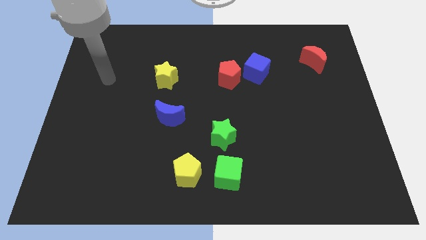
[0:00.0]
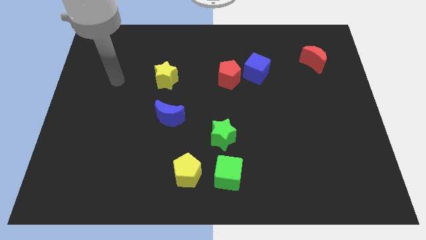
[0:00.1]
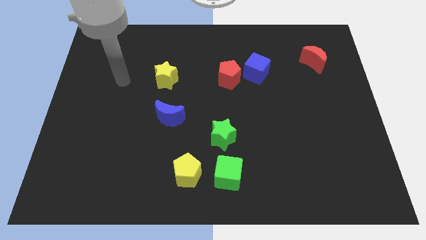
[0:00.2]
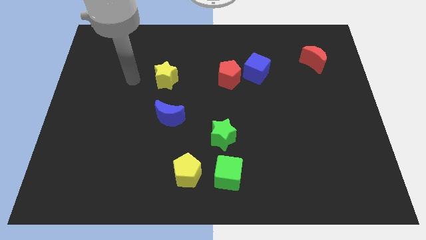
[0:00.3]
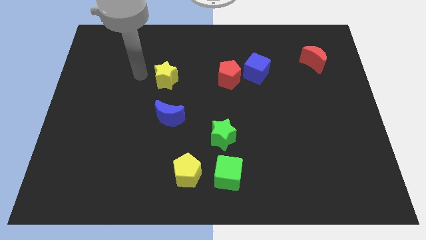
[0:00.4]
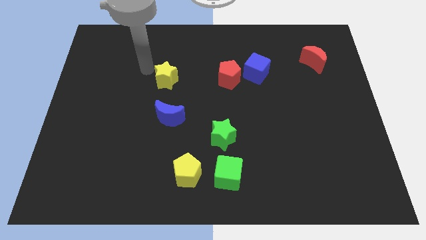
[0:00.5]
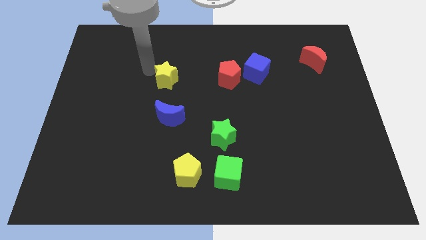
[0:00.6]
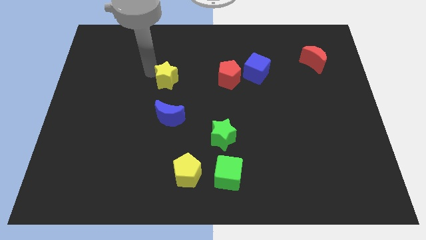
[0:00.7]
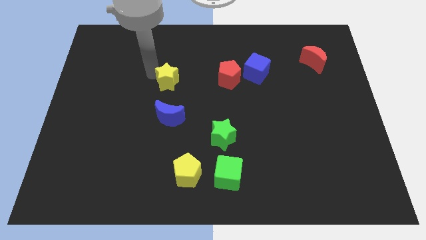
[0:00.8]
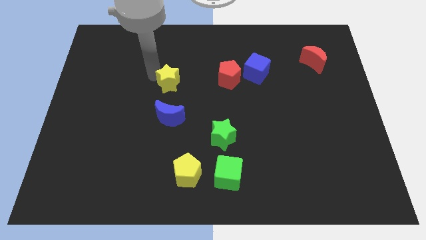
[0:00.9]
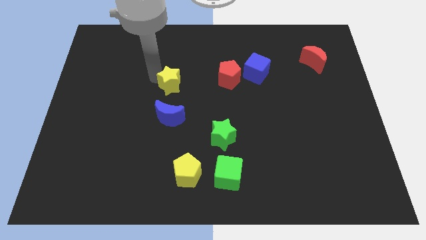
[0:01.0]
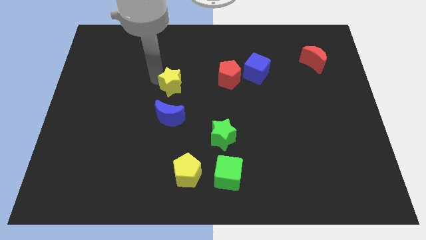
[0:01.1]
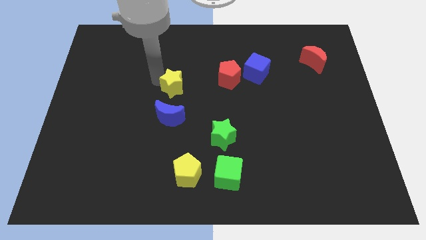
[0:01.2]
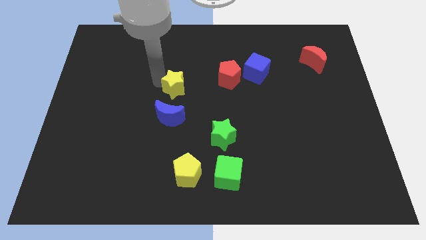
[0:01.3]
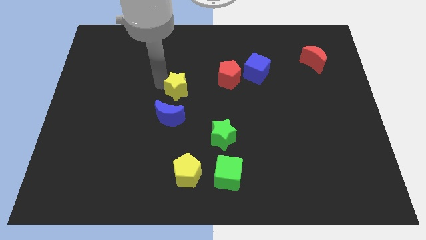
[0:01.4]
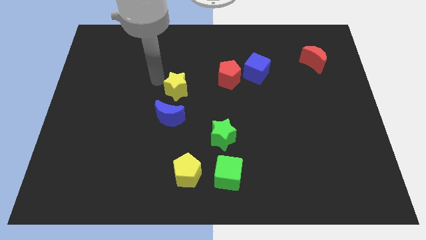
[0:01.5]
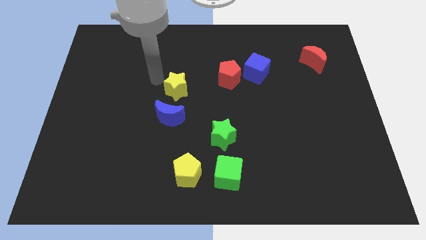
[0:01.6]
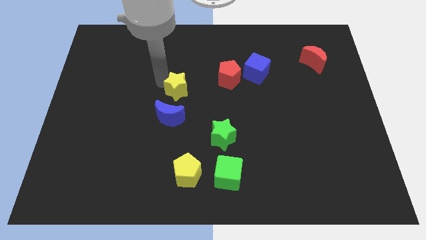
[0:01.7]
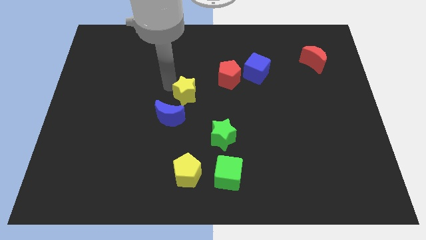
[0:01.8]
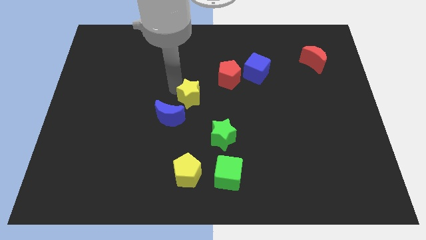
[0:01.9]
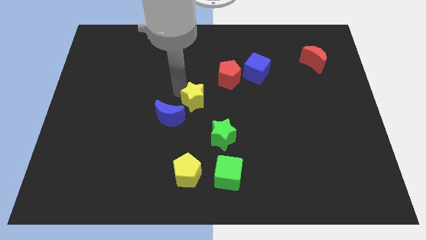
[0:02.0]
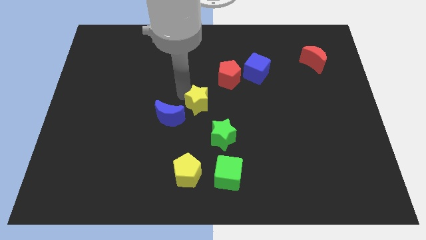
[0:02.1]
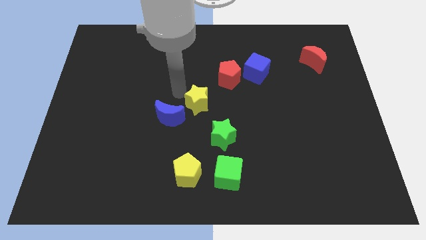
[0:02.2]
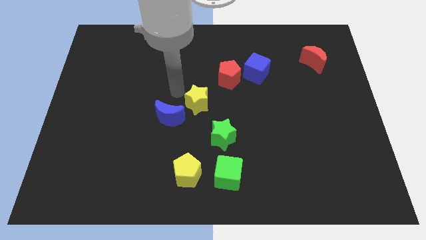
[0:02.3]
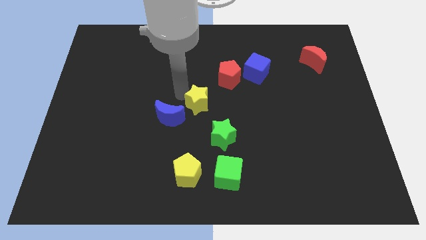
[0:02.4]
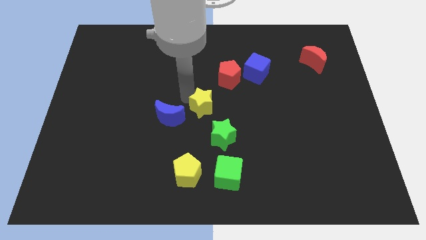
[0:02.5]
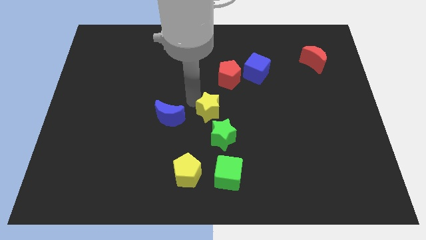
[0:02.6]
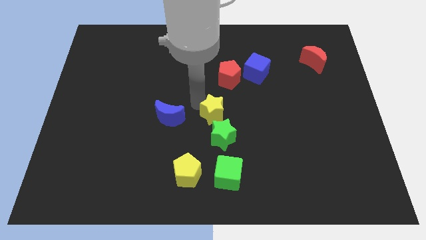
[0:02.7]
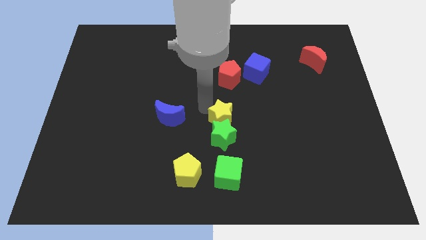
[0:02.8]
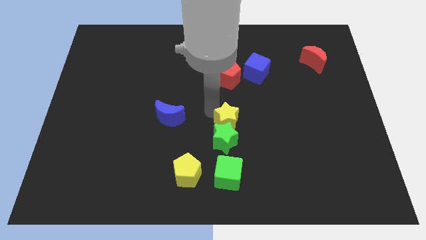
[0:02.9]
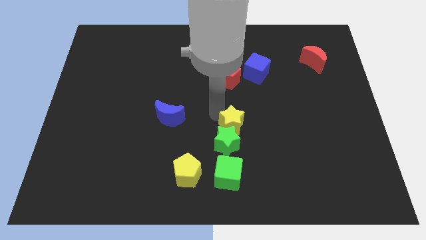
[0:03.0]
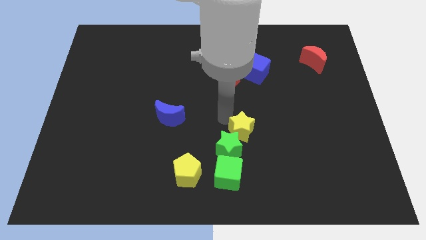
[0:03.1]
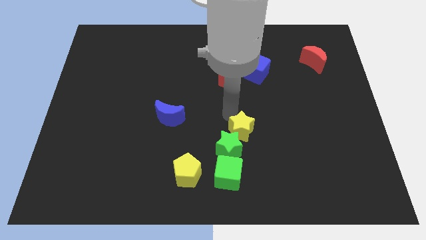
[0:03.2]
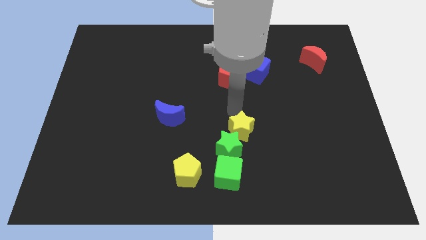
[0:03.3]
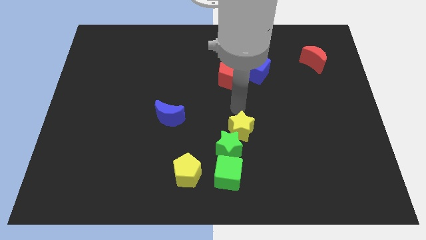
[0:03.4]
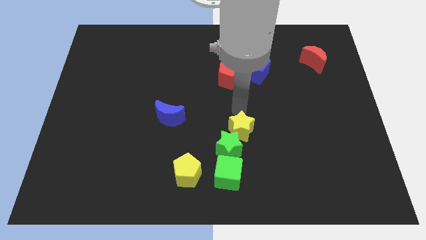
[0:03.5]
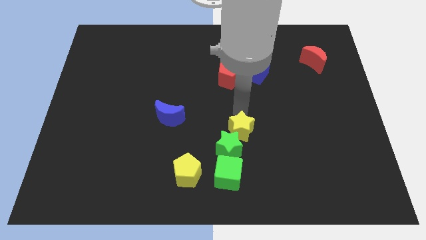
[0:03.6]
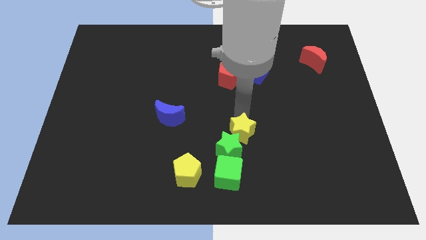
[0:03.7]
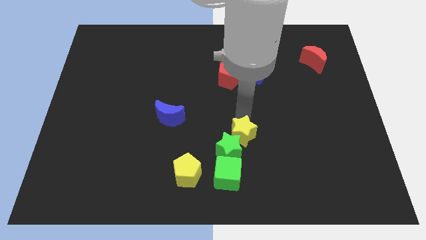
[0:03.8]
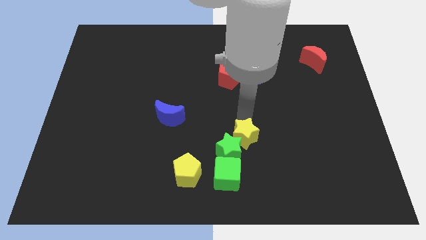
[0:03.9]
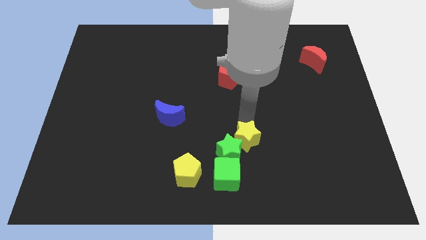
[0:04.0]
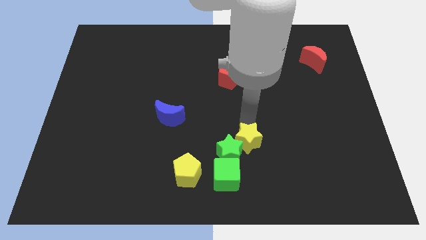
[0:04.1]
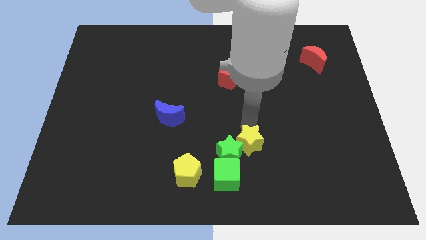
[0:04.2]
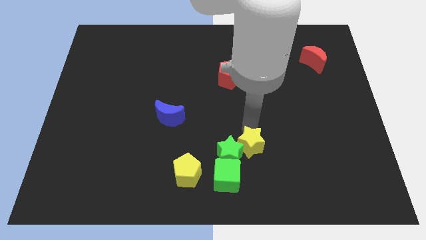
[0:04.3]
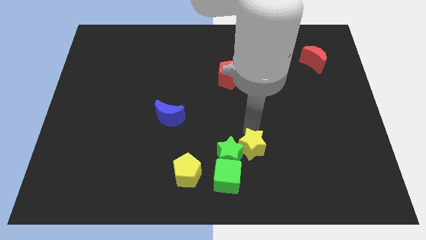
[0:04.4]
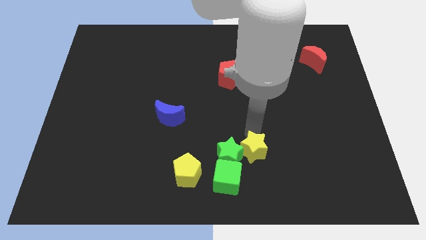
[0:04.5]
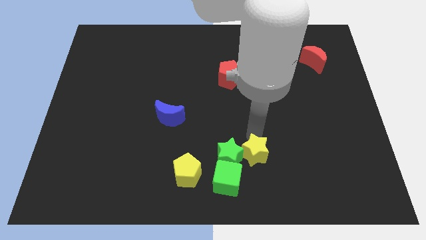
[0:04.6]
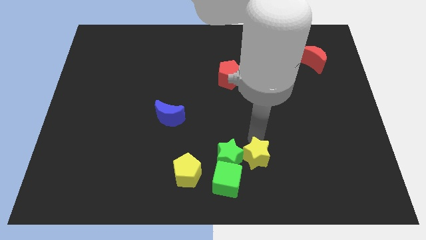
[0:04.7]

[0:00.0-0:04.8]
move the yellow star right of the yellow pentagon

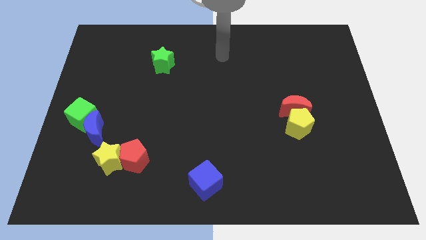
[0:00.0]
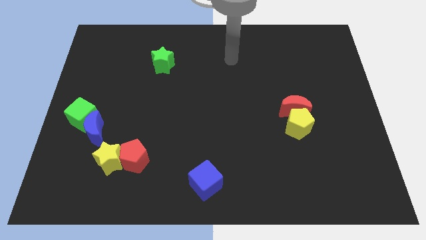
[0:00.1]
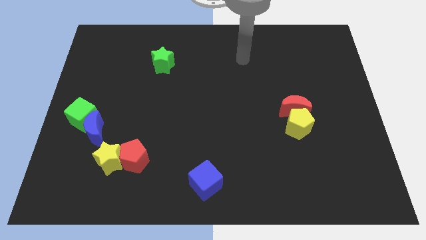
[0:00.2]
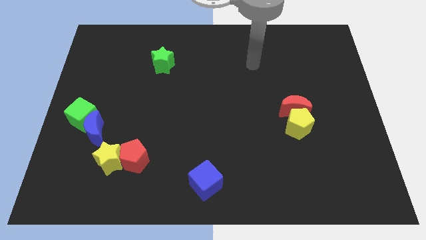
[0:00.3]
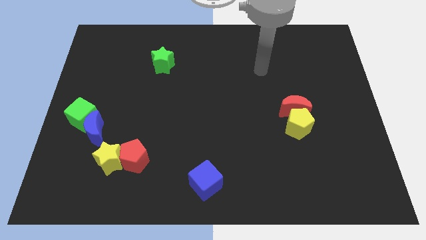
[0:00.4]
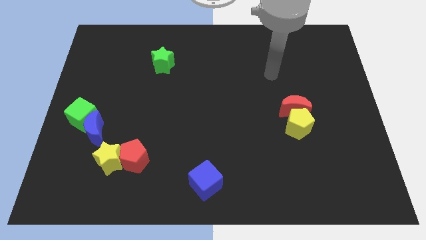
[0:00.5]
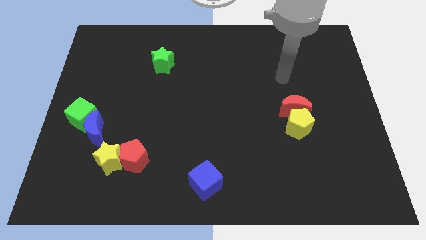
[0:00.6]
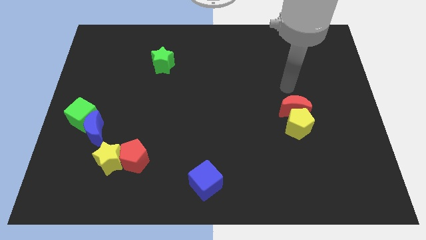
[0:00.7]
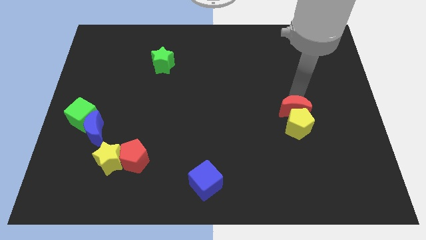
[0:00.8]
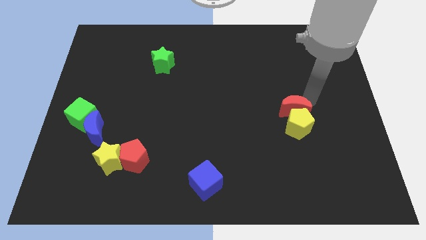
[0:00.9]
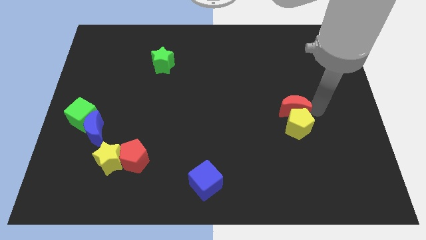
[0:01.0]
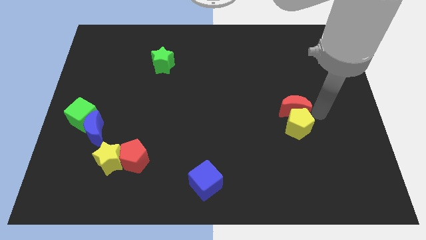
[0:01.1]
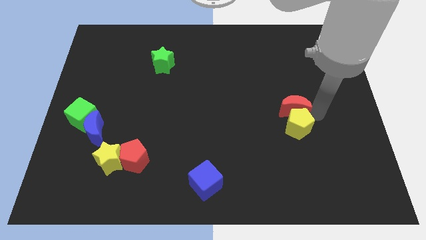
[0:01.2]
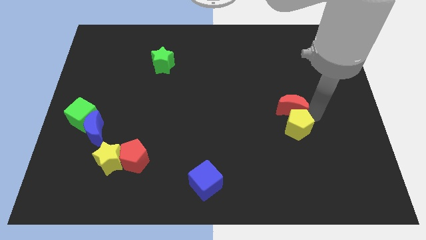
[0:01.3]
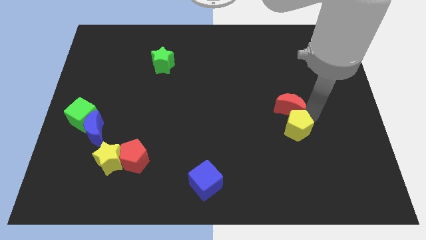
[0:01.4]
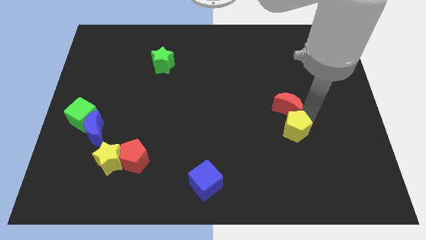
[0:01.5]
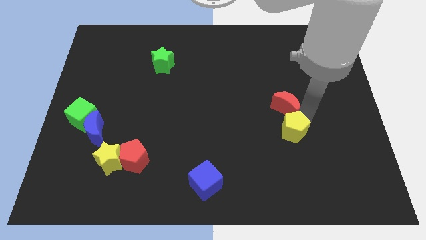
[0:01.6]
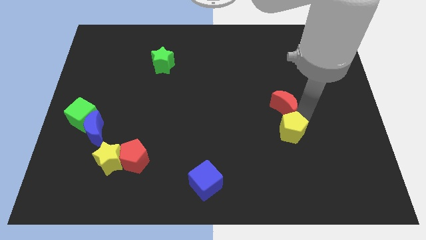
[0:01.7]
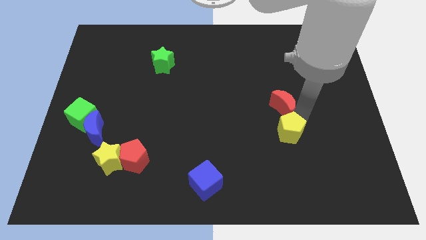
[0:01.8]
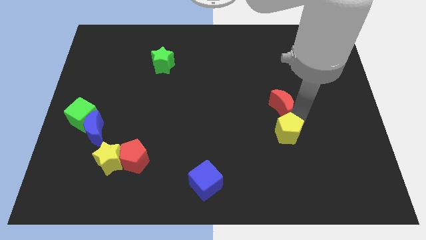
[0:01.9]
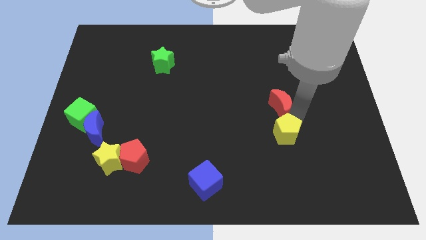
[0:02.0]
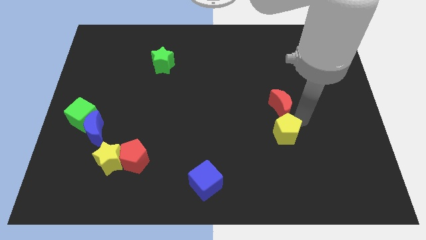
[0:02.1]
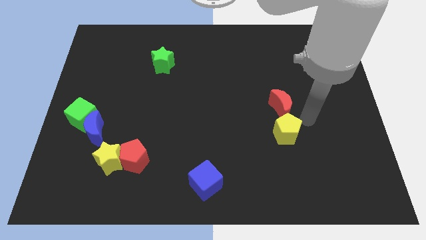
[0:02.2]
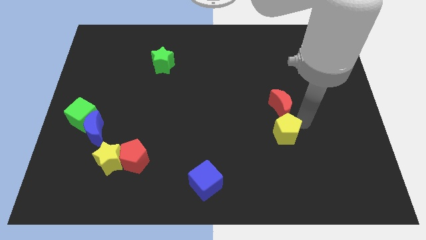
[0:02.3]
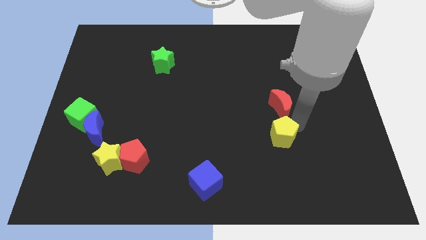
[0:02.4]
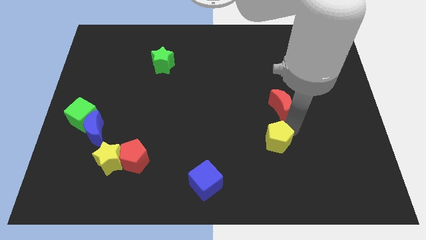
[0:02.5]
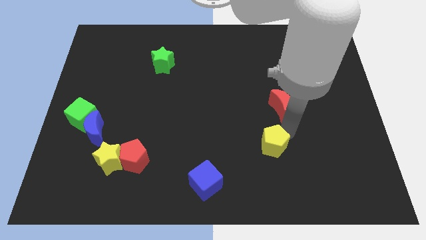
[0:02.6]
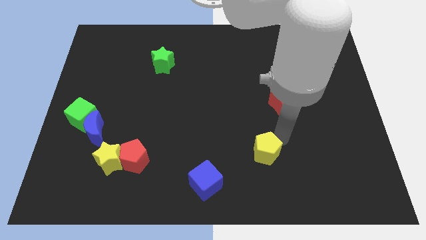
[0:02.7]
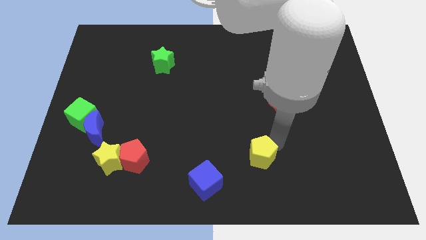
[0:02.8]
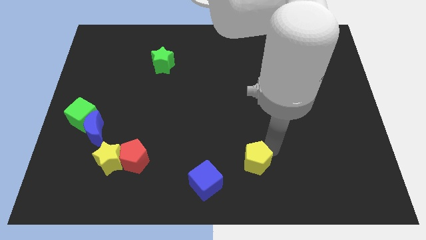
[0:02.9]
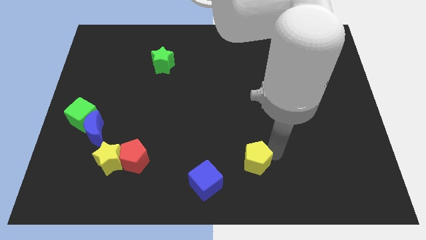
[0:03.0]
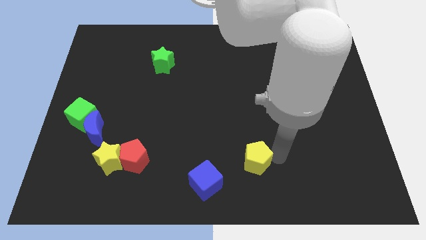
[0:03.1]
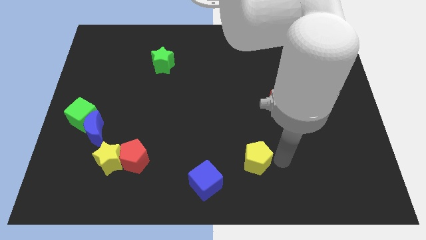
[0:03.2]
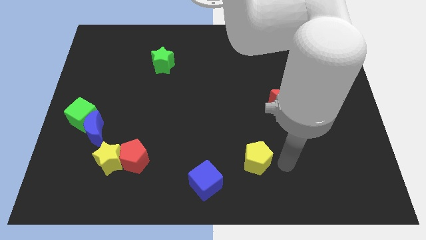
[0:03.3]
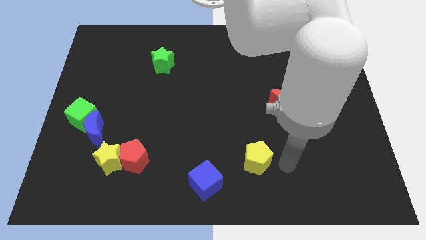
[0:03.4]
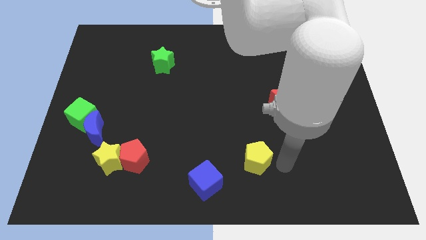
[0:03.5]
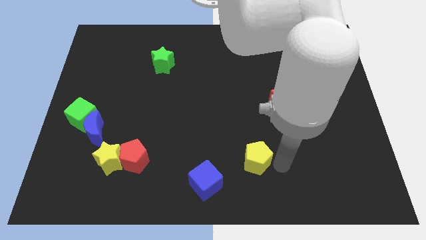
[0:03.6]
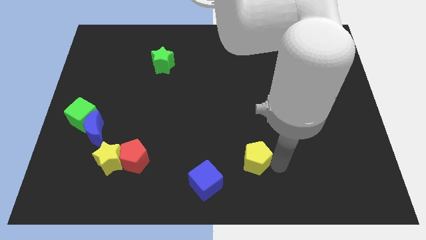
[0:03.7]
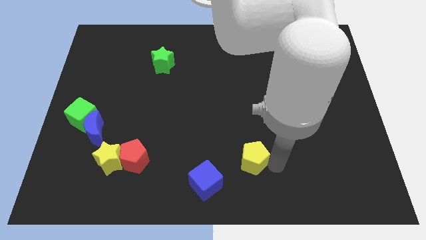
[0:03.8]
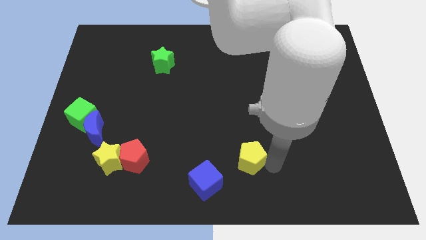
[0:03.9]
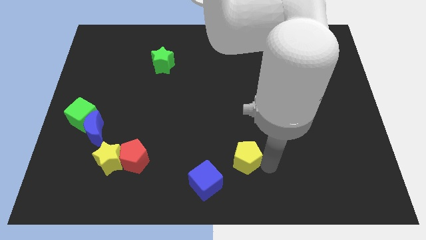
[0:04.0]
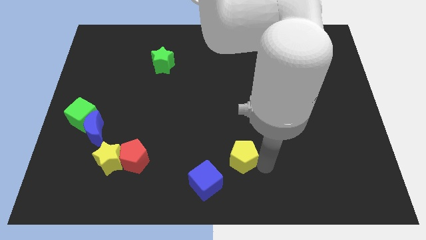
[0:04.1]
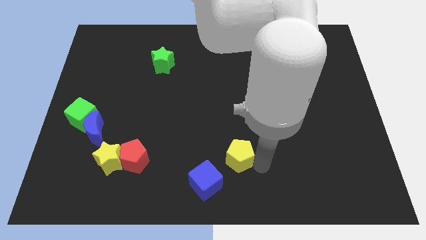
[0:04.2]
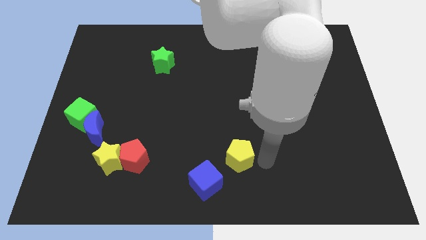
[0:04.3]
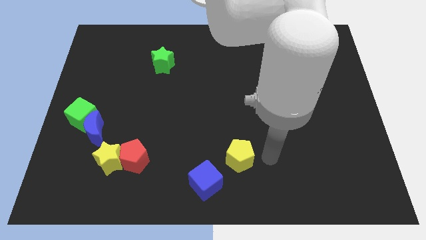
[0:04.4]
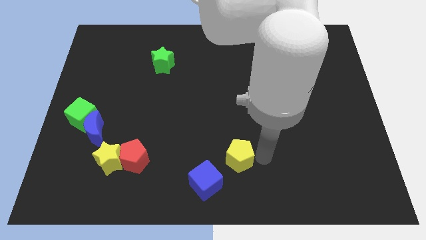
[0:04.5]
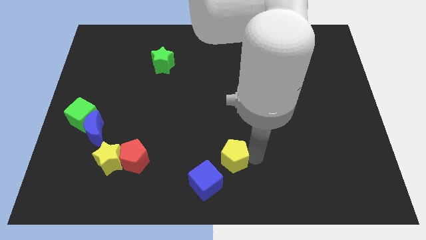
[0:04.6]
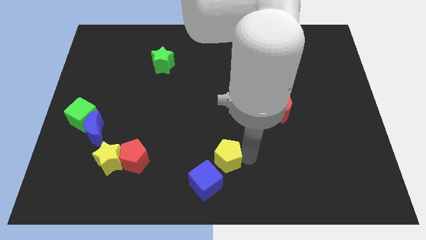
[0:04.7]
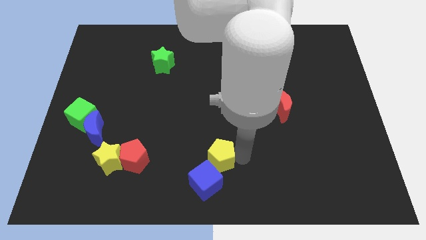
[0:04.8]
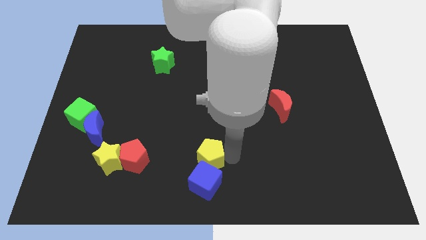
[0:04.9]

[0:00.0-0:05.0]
push the yellow pentagon to the right side of the red pentagon
